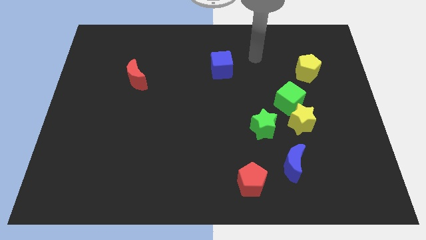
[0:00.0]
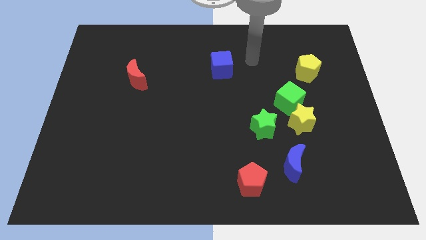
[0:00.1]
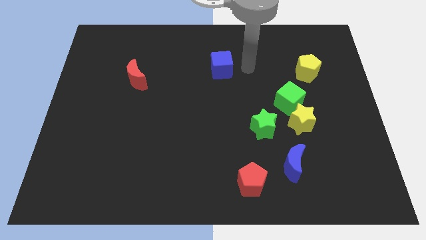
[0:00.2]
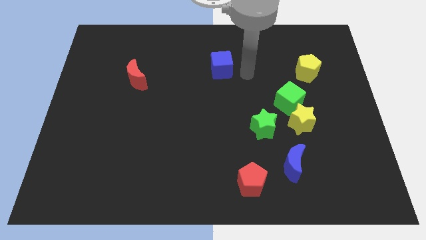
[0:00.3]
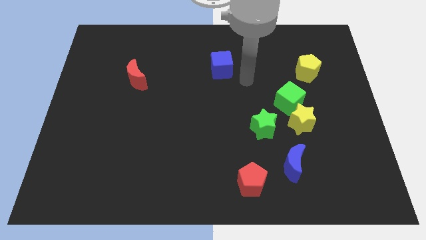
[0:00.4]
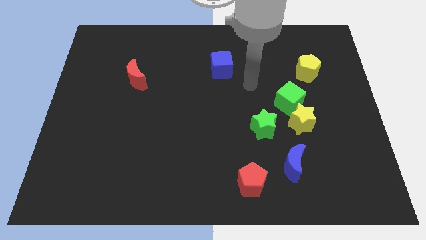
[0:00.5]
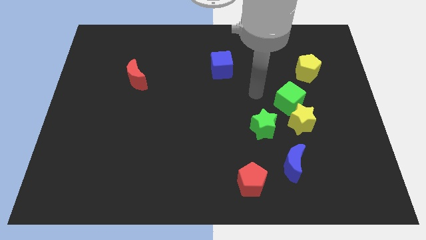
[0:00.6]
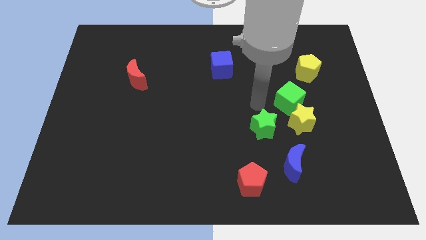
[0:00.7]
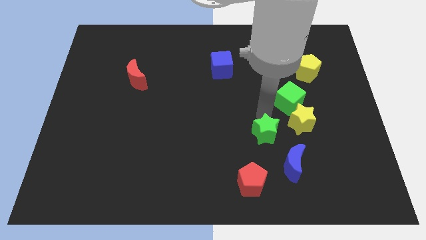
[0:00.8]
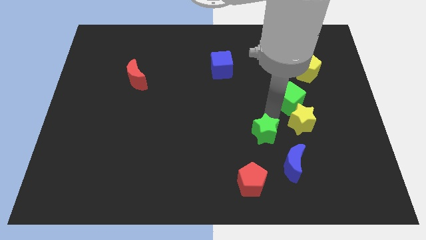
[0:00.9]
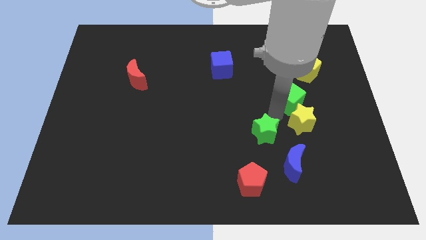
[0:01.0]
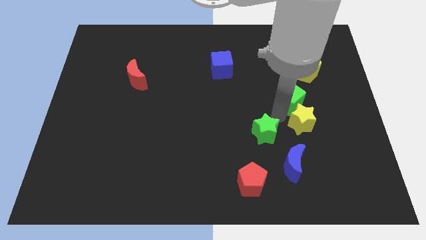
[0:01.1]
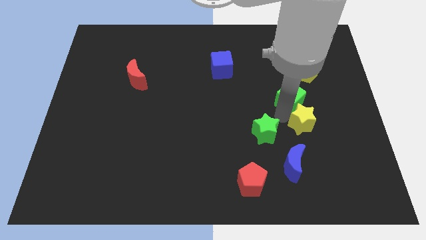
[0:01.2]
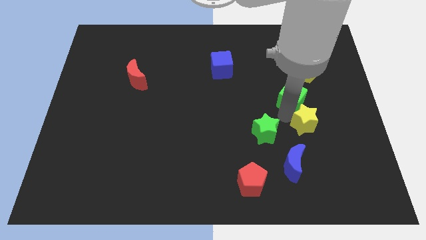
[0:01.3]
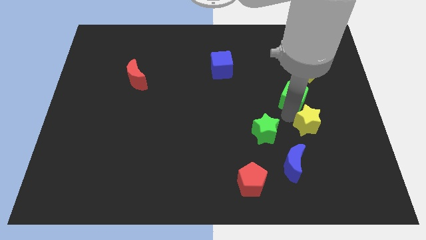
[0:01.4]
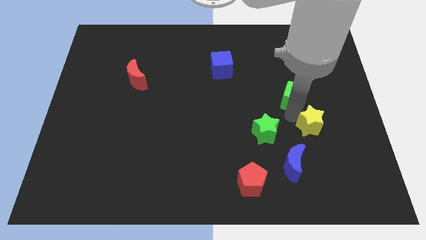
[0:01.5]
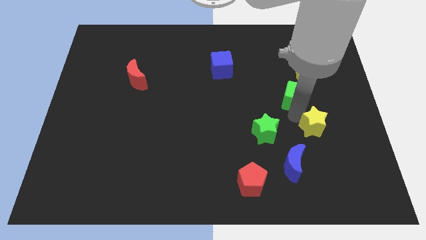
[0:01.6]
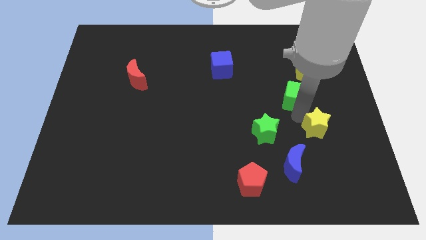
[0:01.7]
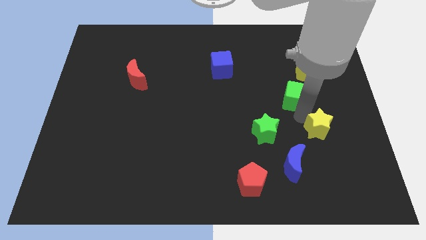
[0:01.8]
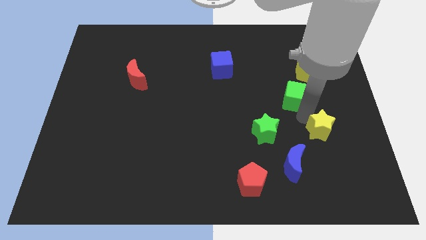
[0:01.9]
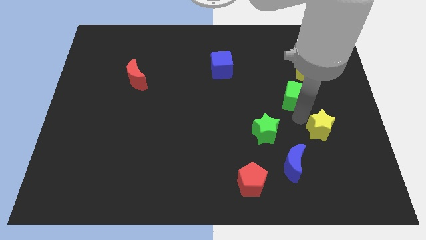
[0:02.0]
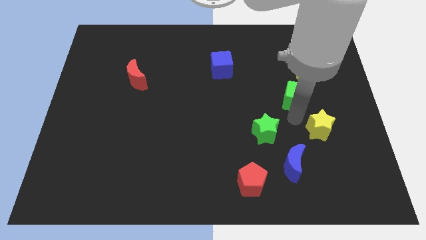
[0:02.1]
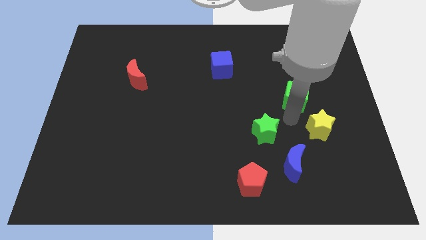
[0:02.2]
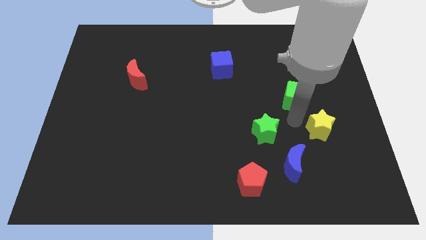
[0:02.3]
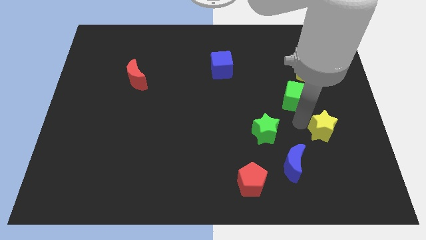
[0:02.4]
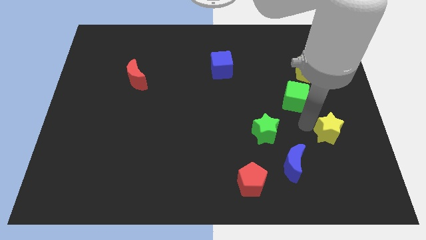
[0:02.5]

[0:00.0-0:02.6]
separate the yellow star from the green cube and green star

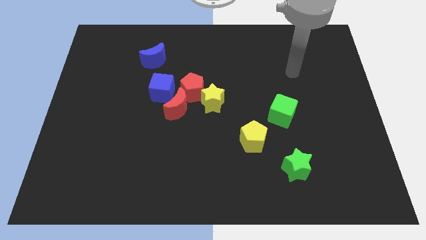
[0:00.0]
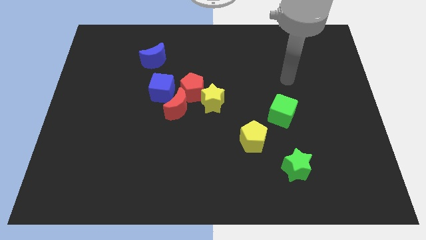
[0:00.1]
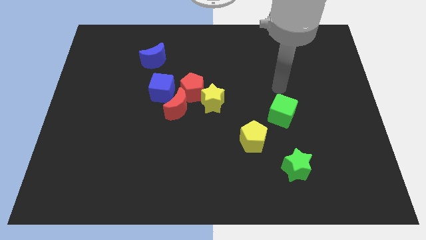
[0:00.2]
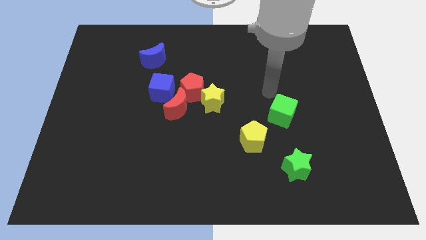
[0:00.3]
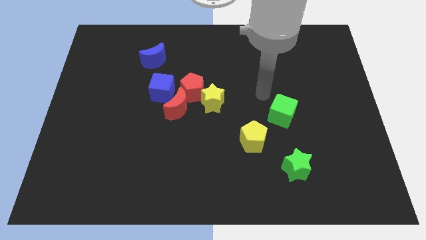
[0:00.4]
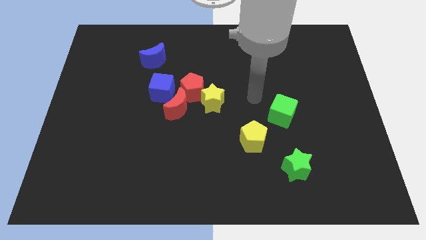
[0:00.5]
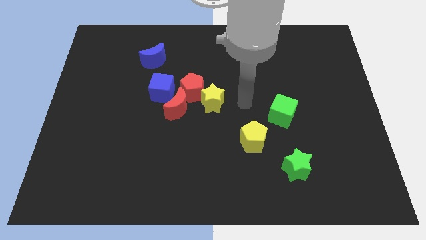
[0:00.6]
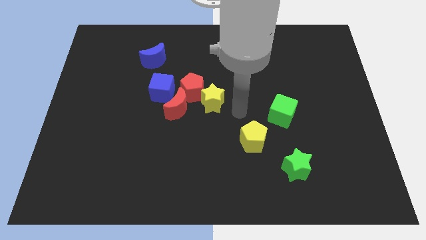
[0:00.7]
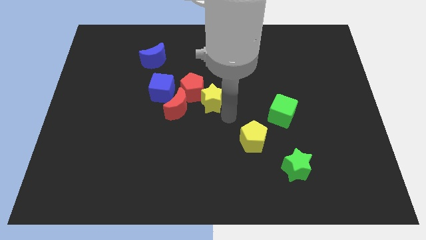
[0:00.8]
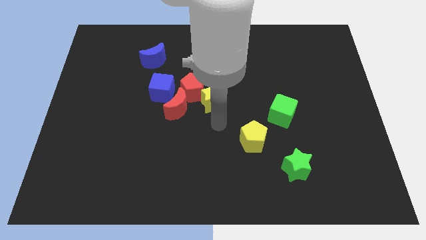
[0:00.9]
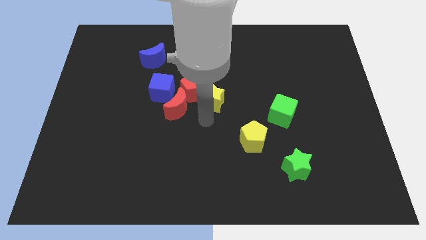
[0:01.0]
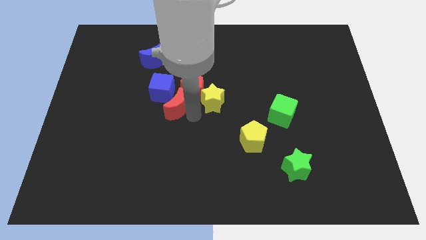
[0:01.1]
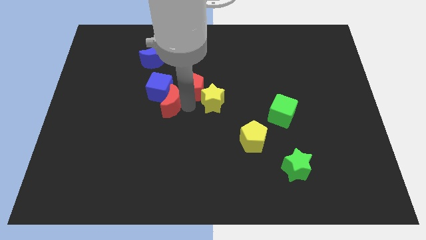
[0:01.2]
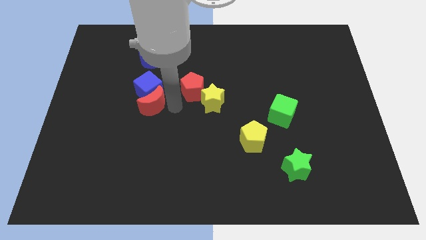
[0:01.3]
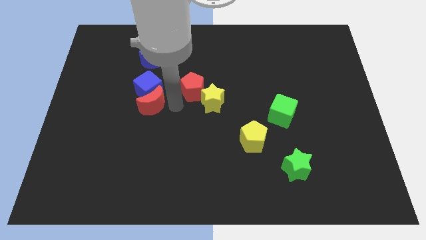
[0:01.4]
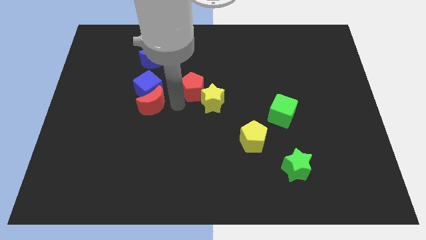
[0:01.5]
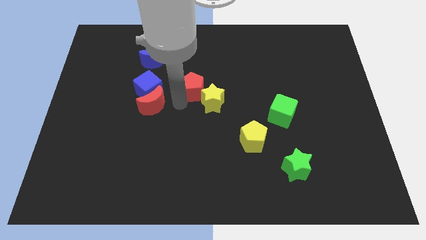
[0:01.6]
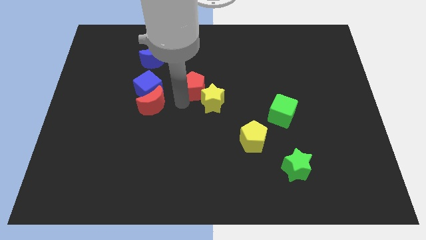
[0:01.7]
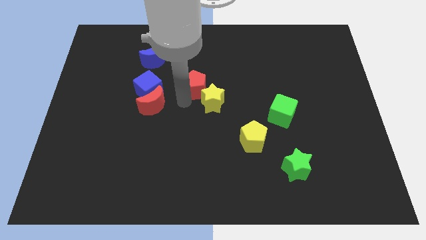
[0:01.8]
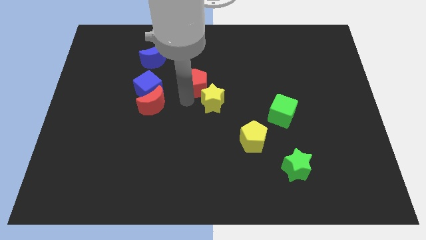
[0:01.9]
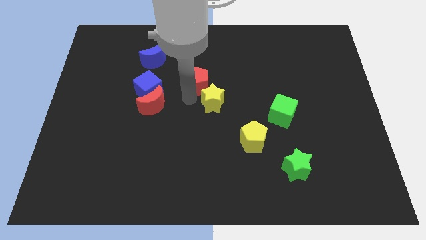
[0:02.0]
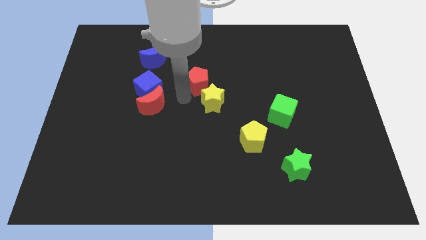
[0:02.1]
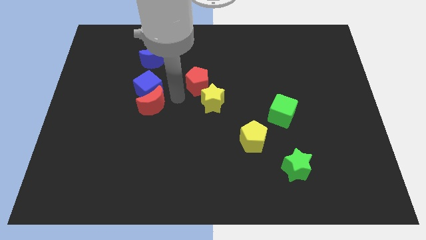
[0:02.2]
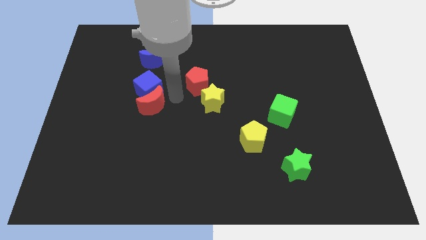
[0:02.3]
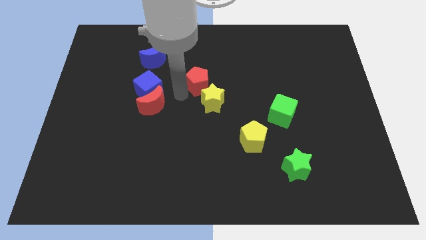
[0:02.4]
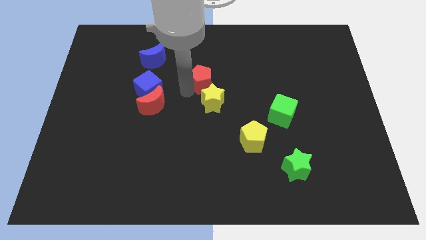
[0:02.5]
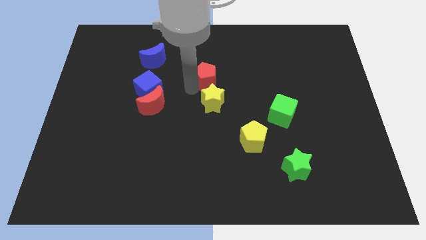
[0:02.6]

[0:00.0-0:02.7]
move the red pentagon away from the clump

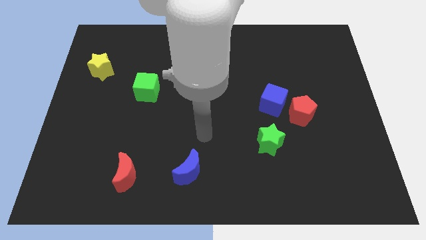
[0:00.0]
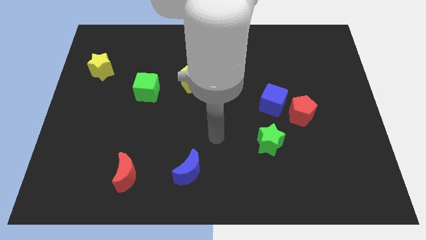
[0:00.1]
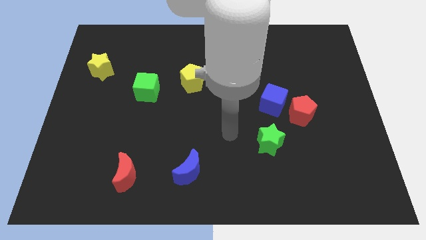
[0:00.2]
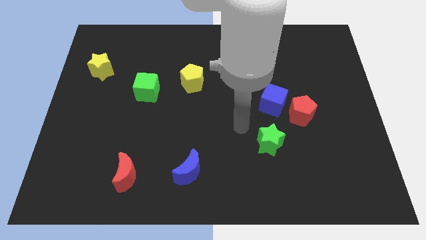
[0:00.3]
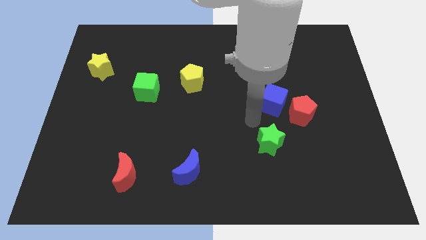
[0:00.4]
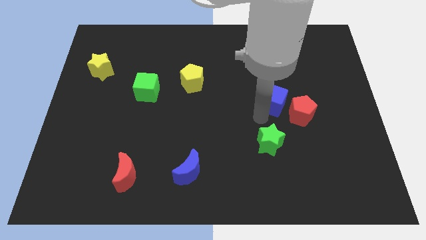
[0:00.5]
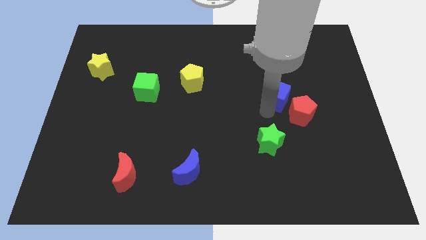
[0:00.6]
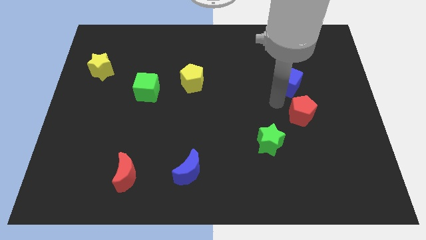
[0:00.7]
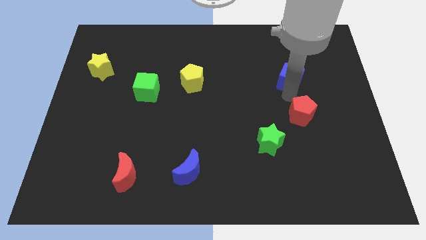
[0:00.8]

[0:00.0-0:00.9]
move the red pentagon away from the blue cube

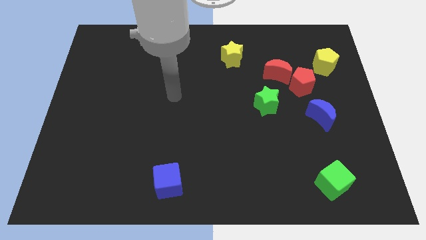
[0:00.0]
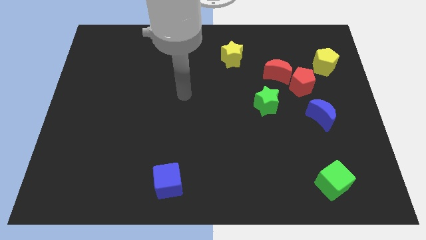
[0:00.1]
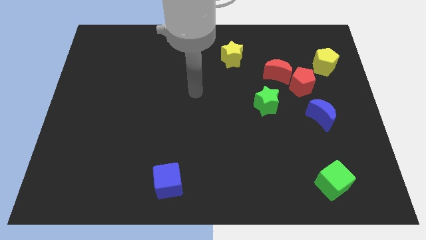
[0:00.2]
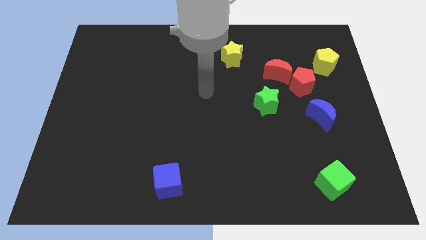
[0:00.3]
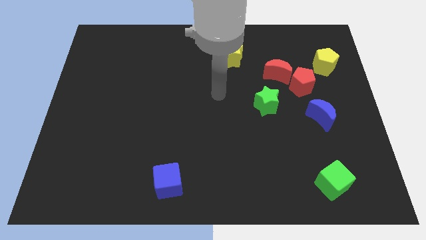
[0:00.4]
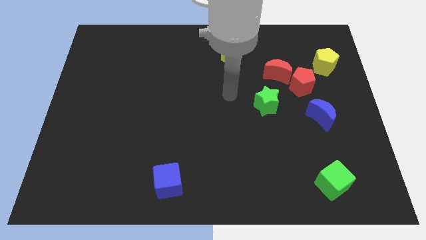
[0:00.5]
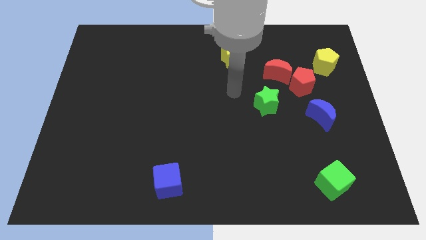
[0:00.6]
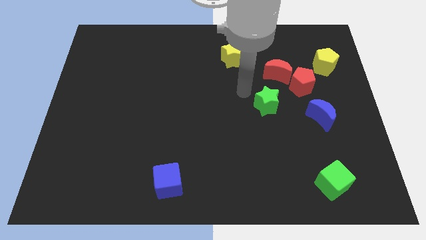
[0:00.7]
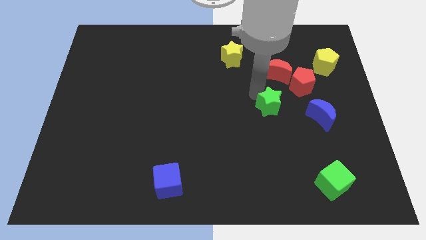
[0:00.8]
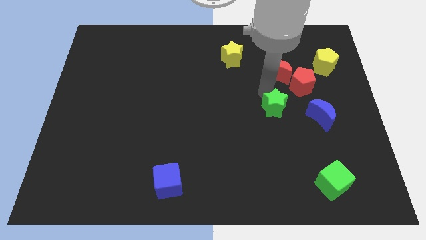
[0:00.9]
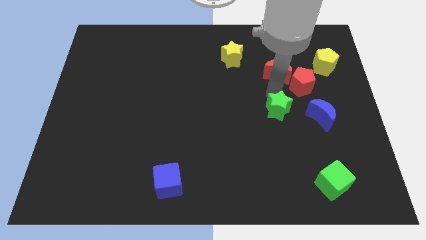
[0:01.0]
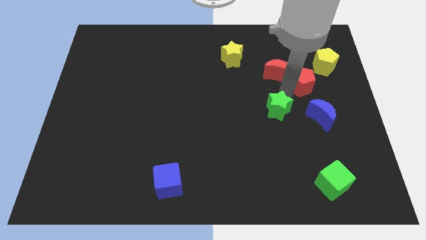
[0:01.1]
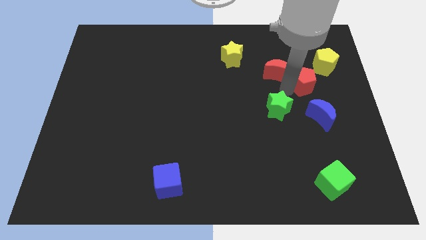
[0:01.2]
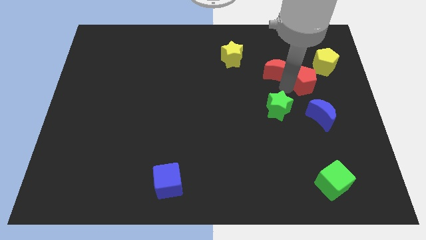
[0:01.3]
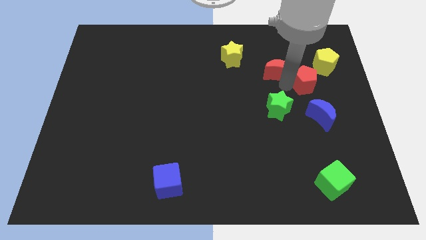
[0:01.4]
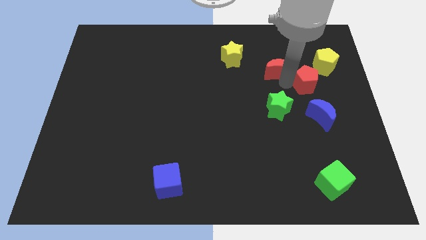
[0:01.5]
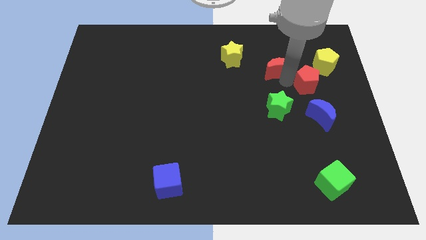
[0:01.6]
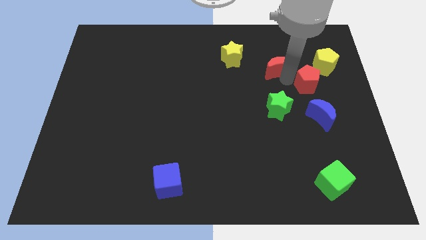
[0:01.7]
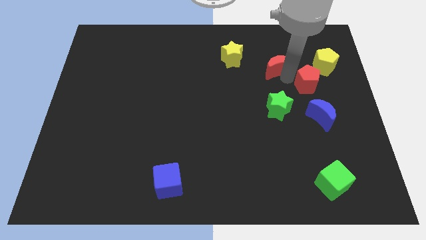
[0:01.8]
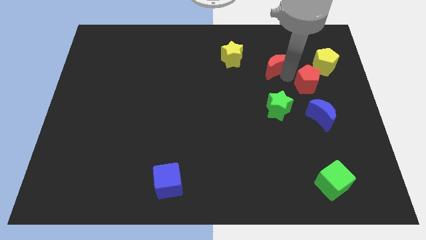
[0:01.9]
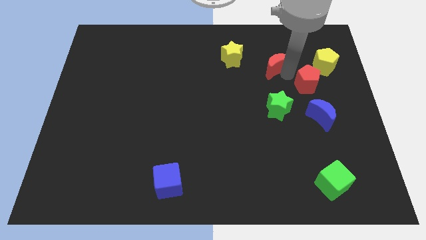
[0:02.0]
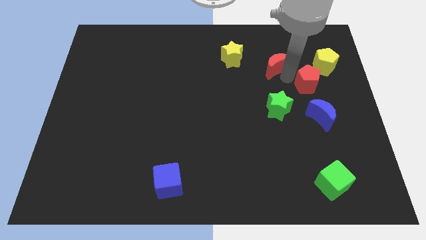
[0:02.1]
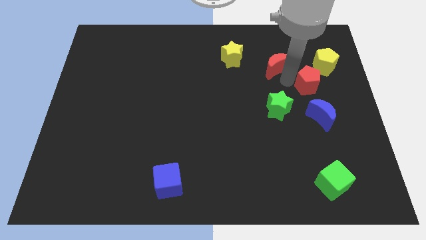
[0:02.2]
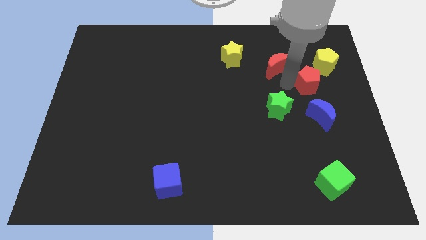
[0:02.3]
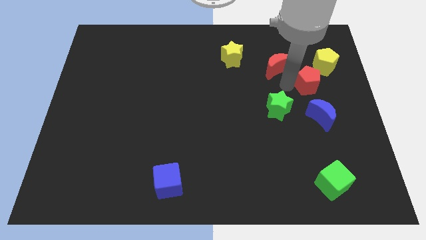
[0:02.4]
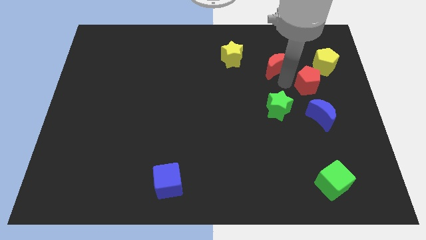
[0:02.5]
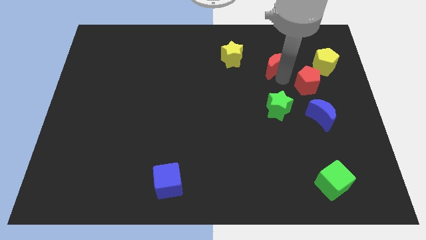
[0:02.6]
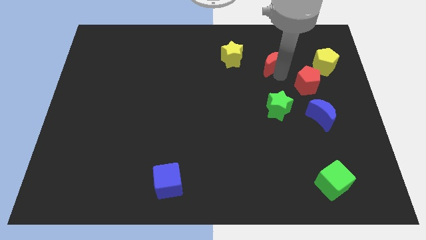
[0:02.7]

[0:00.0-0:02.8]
move the red moon away from the red pentagon and green star
